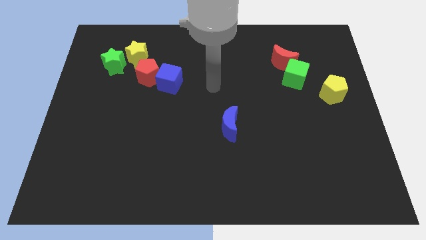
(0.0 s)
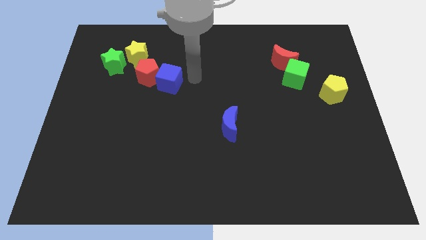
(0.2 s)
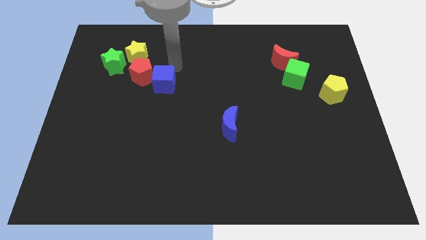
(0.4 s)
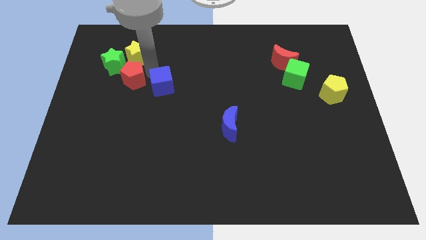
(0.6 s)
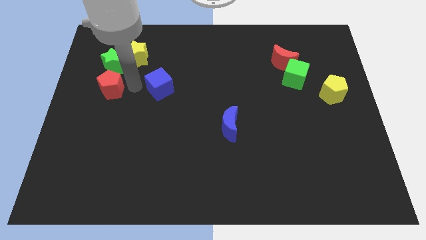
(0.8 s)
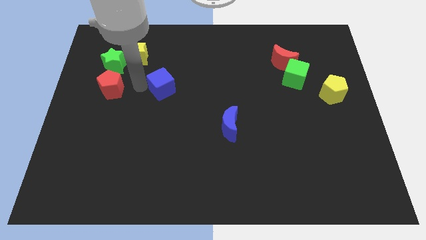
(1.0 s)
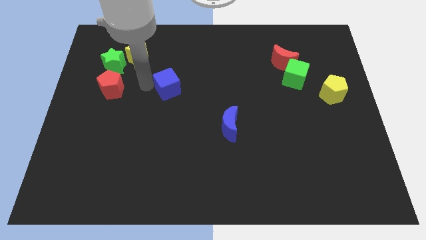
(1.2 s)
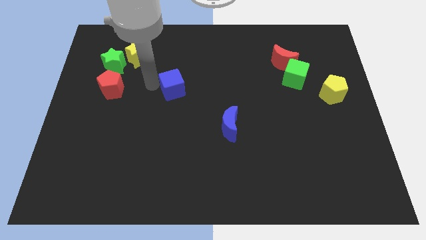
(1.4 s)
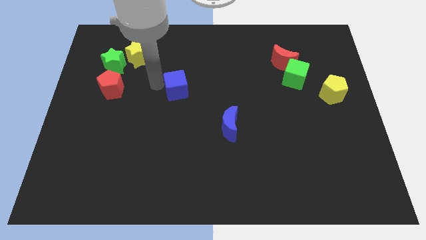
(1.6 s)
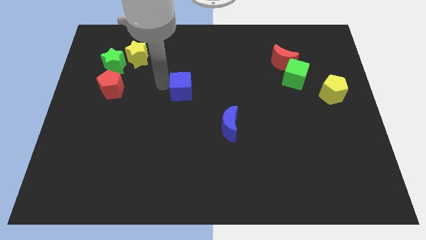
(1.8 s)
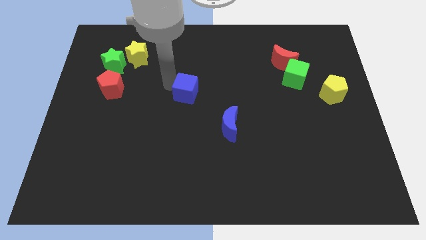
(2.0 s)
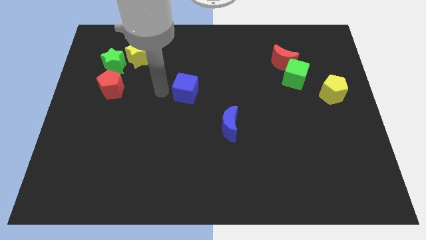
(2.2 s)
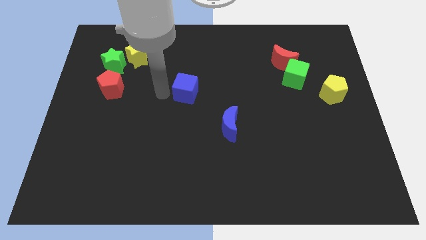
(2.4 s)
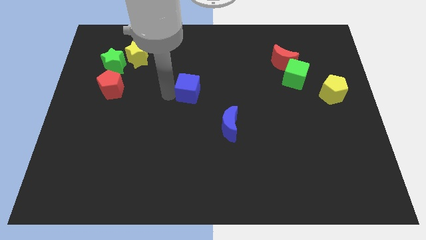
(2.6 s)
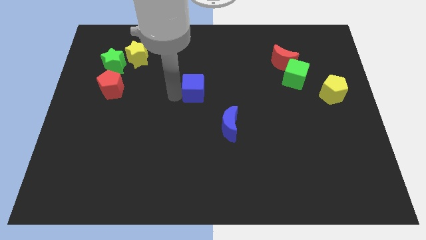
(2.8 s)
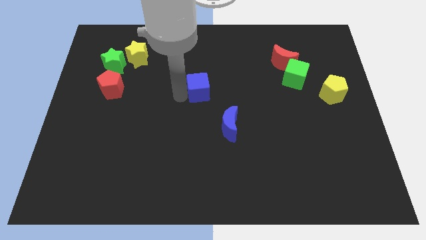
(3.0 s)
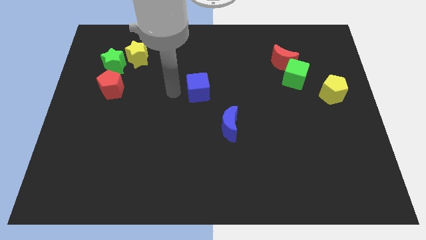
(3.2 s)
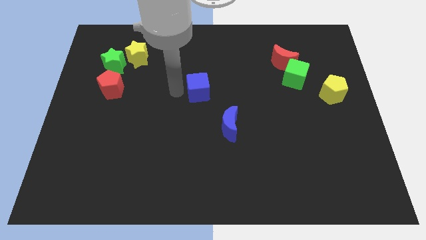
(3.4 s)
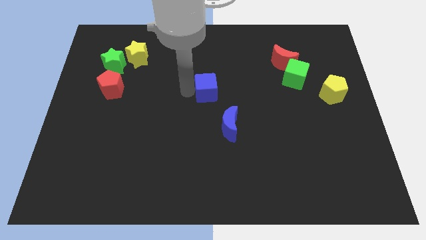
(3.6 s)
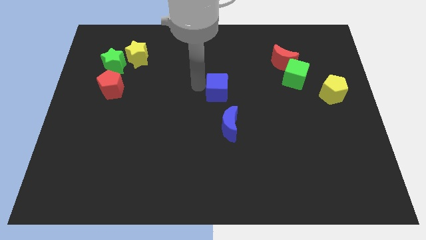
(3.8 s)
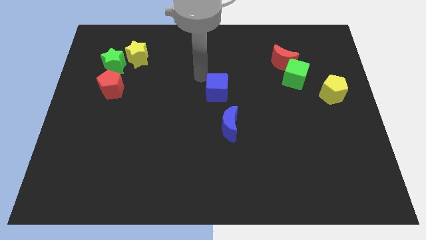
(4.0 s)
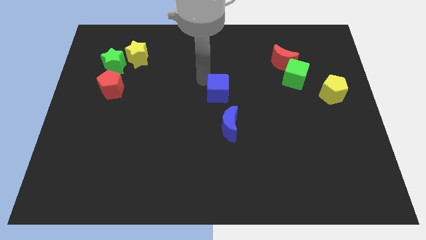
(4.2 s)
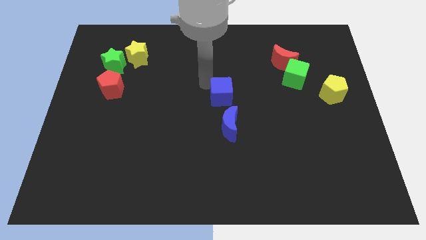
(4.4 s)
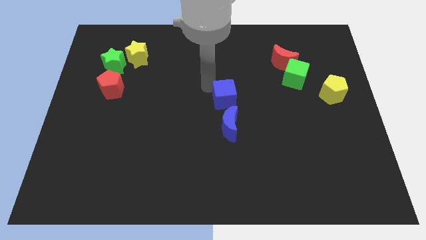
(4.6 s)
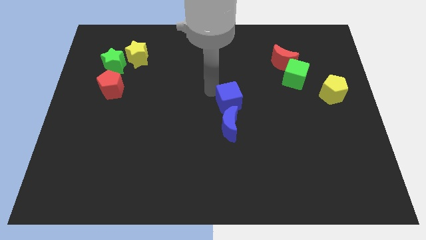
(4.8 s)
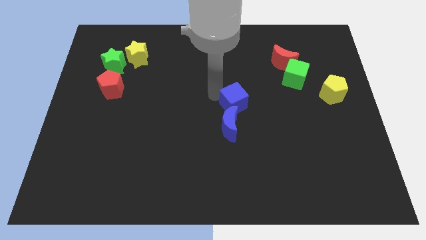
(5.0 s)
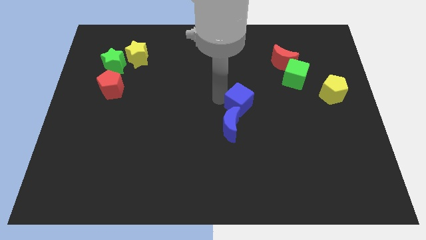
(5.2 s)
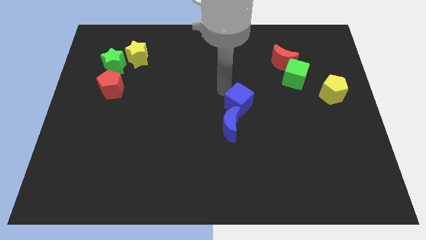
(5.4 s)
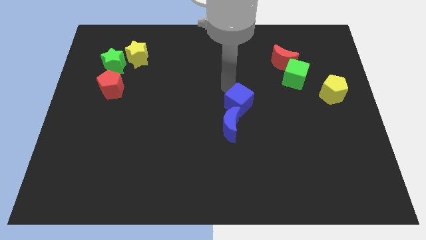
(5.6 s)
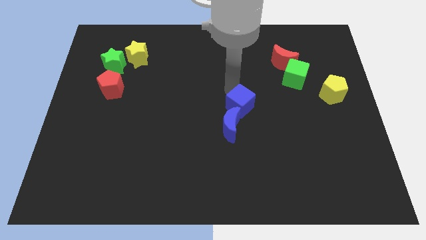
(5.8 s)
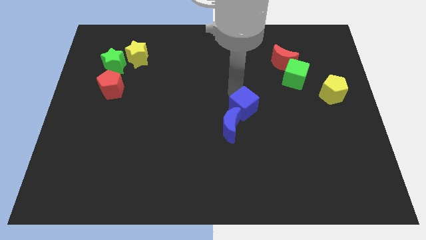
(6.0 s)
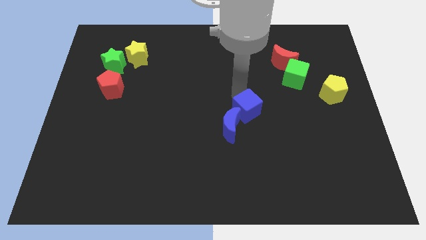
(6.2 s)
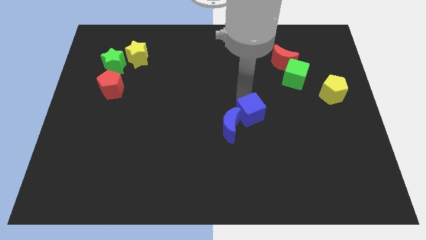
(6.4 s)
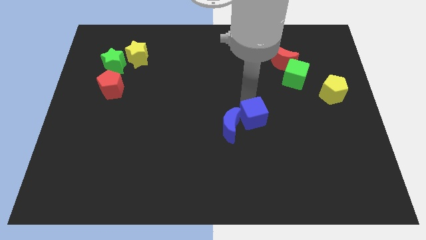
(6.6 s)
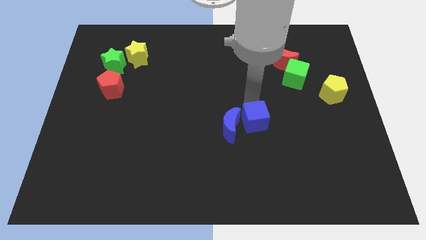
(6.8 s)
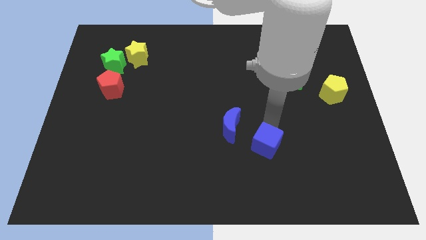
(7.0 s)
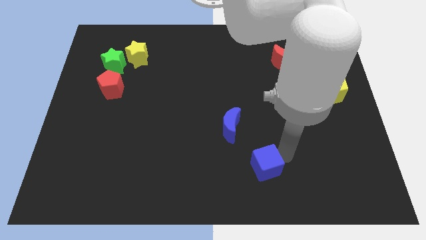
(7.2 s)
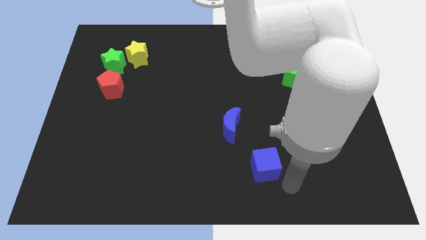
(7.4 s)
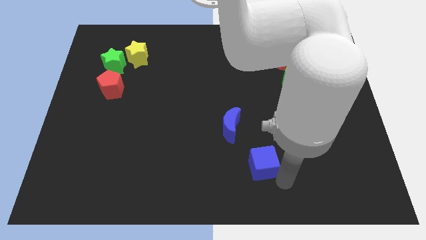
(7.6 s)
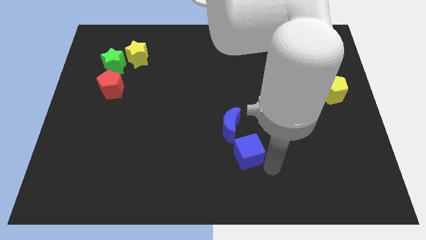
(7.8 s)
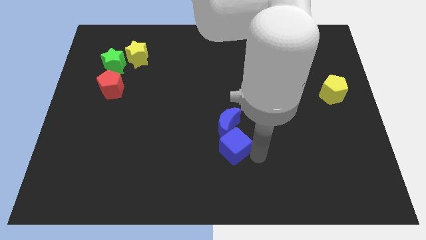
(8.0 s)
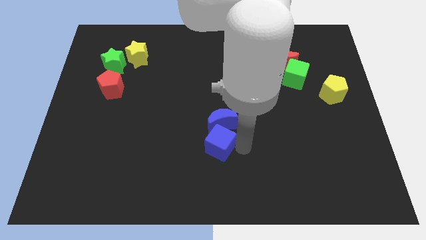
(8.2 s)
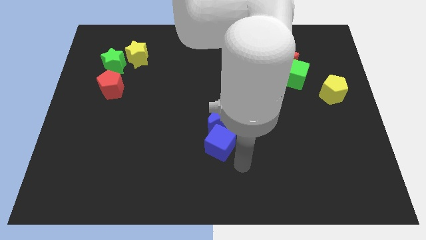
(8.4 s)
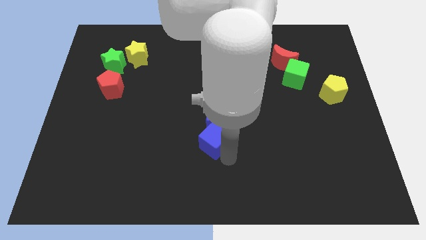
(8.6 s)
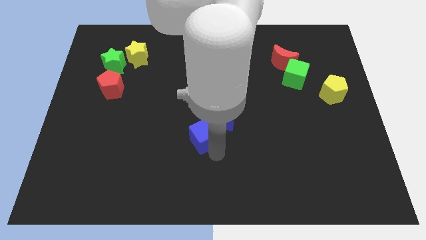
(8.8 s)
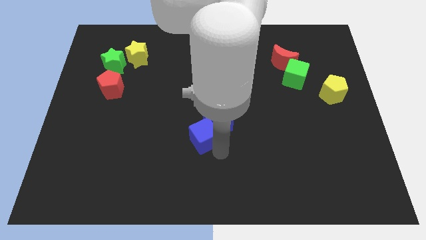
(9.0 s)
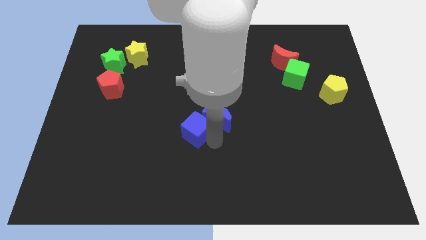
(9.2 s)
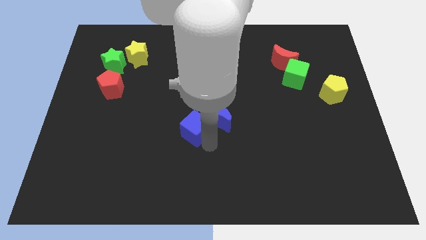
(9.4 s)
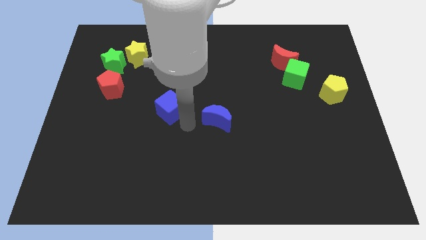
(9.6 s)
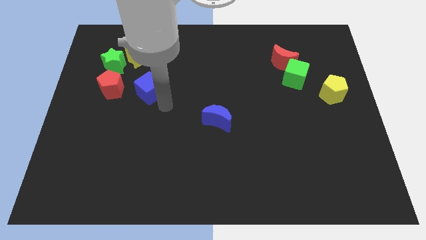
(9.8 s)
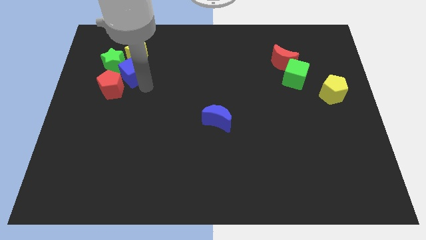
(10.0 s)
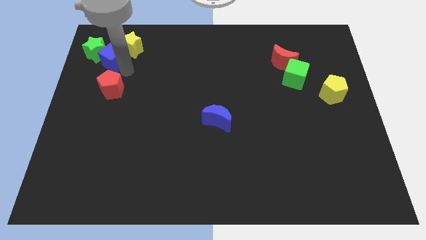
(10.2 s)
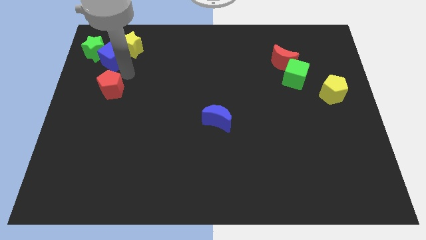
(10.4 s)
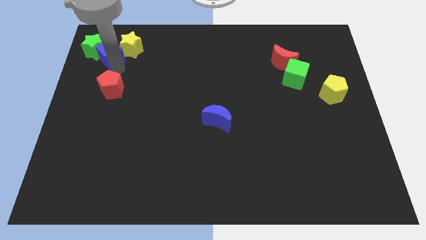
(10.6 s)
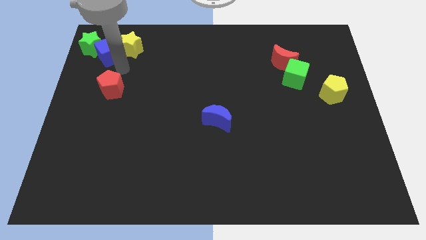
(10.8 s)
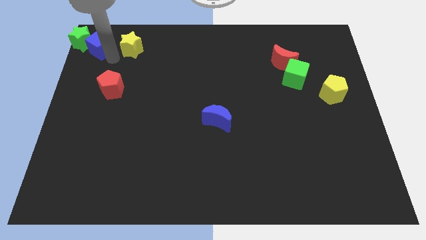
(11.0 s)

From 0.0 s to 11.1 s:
move the blue cube to the upper left corner

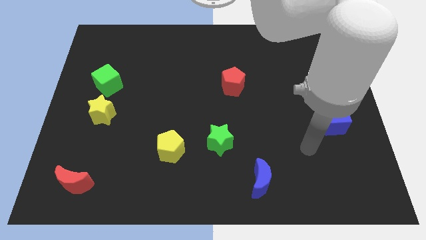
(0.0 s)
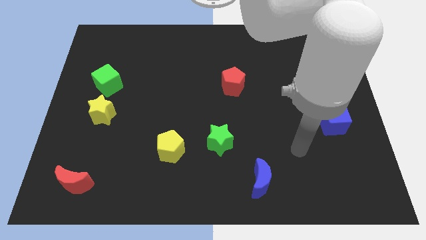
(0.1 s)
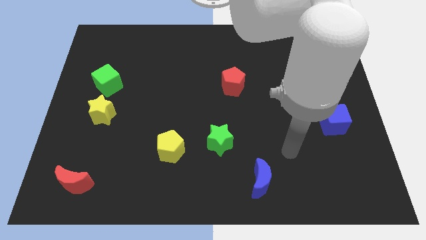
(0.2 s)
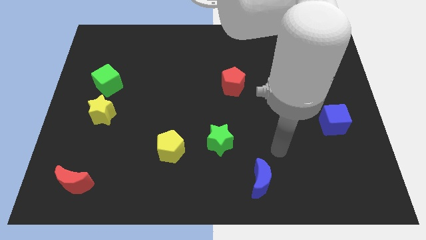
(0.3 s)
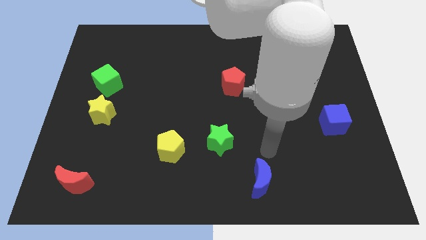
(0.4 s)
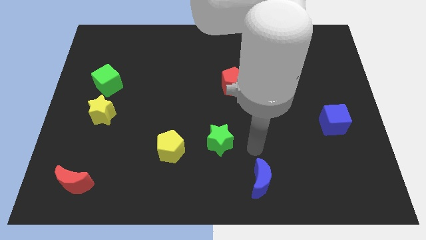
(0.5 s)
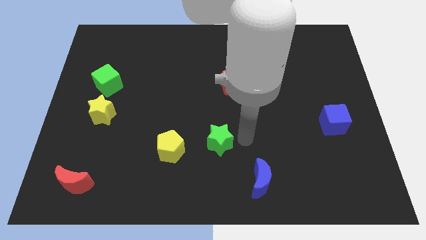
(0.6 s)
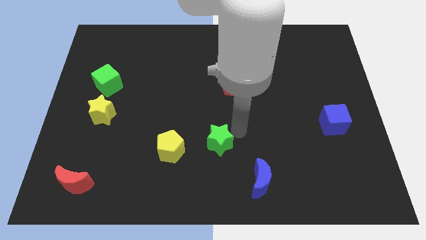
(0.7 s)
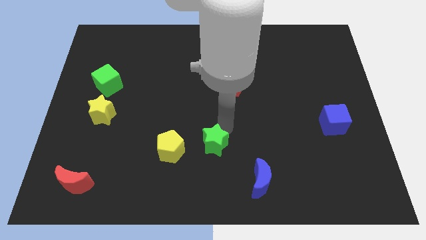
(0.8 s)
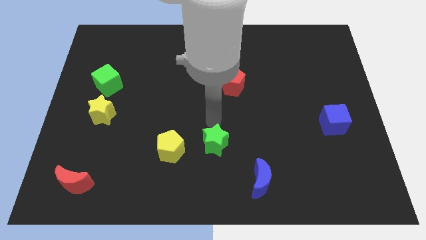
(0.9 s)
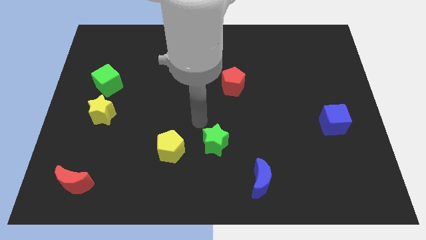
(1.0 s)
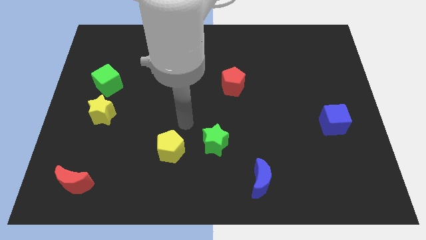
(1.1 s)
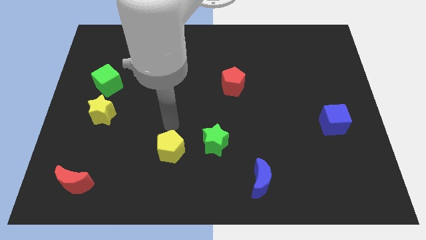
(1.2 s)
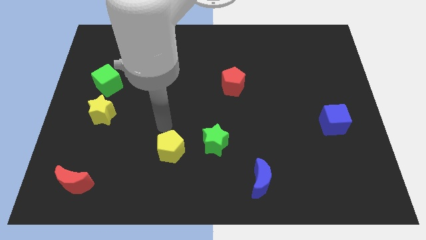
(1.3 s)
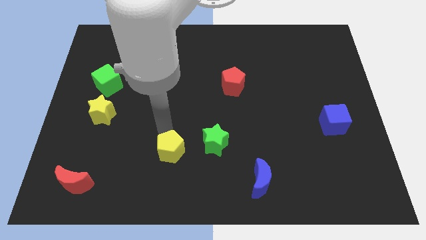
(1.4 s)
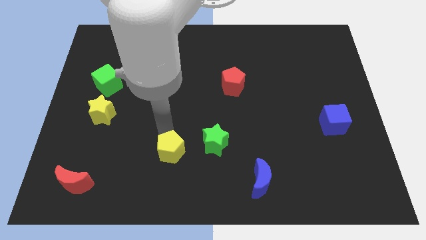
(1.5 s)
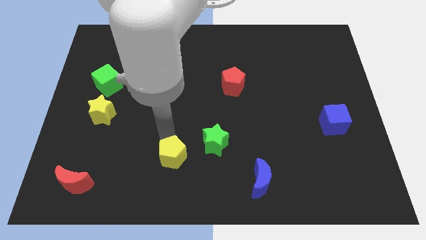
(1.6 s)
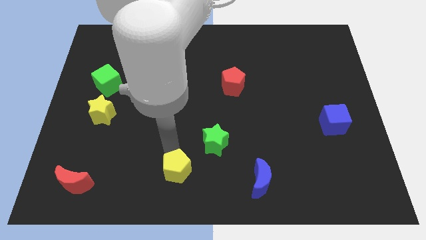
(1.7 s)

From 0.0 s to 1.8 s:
put the yellow pentagon to the bottom
